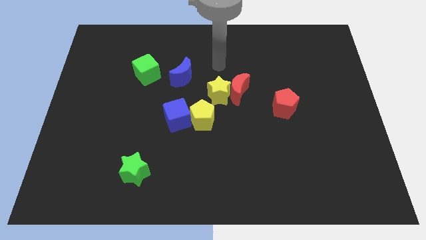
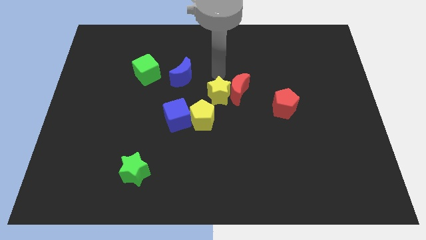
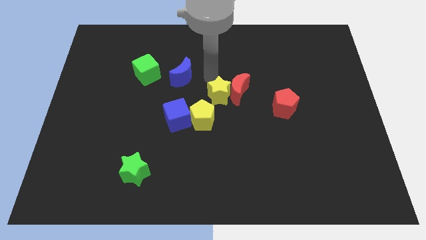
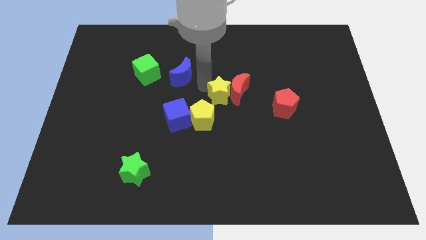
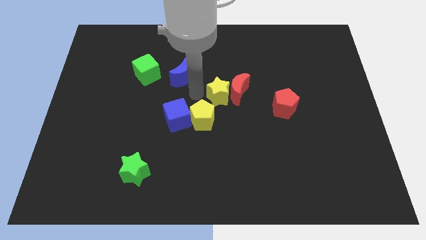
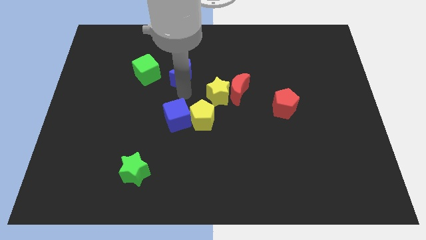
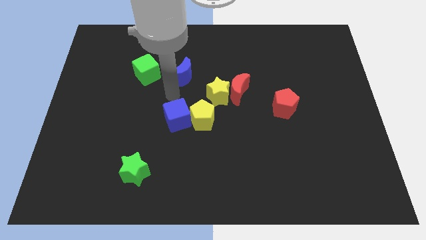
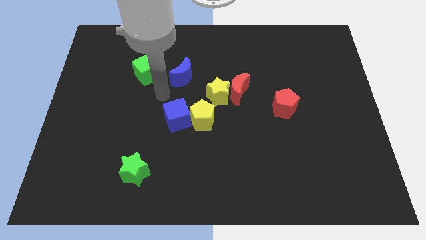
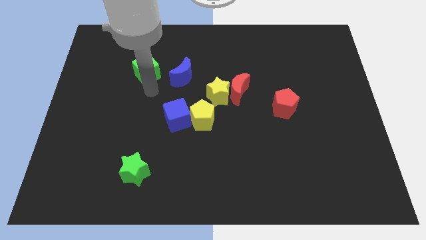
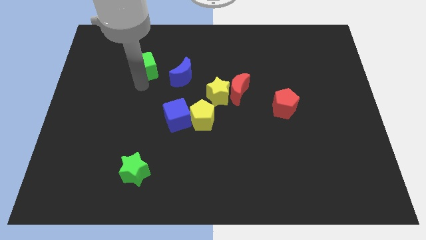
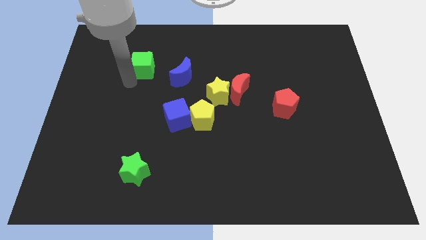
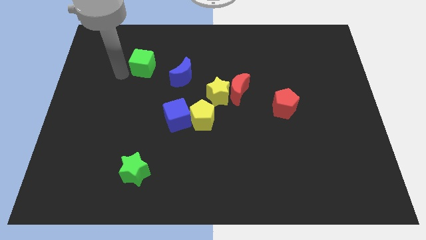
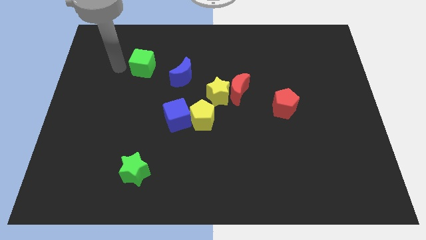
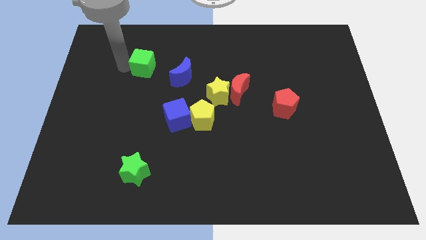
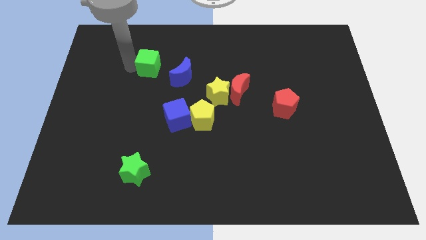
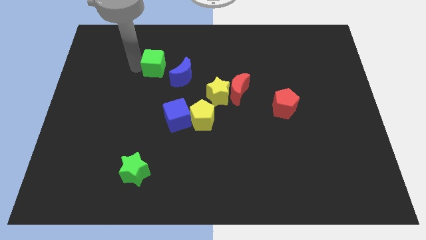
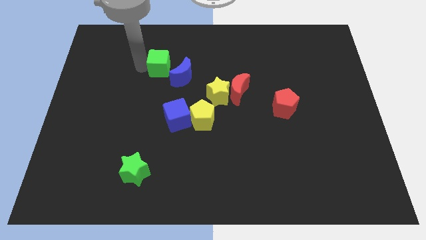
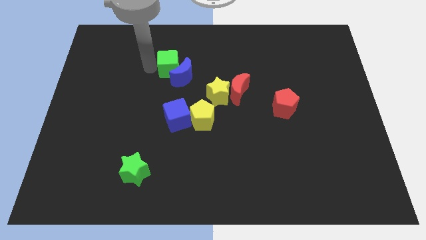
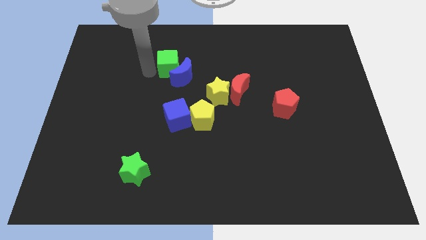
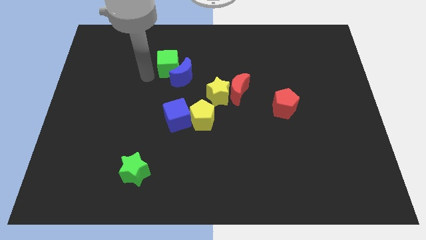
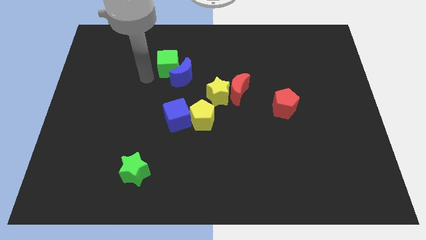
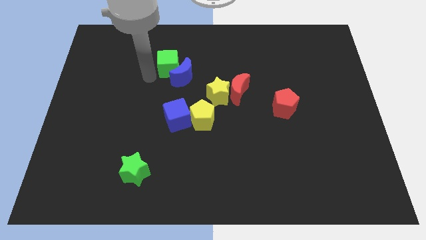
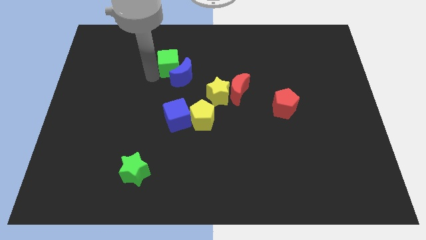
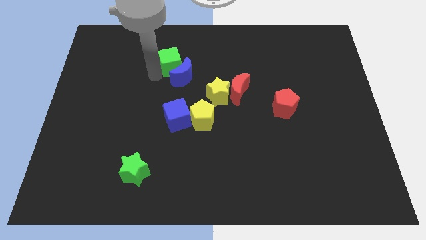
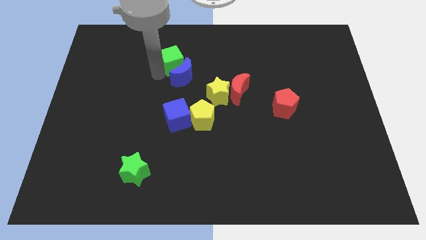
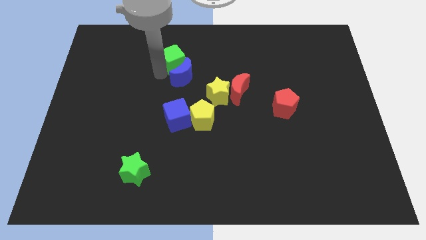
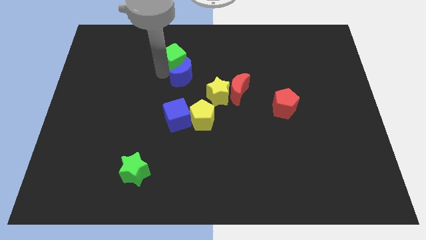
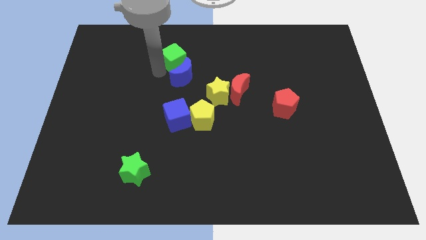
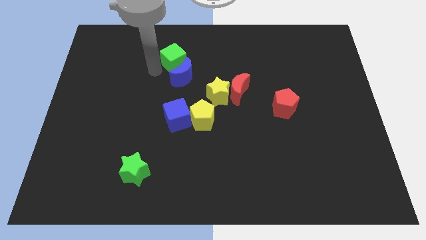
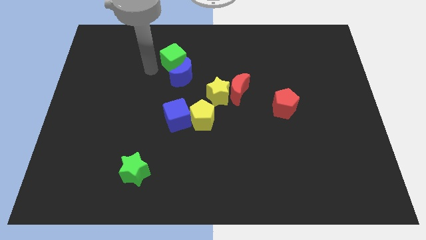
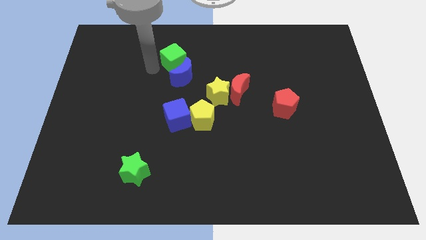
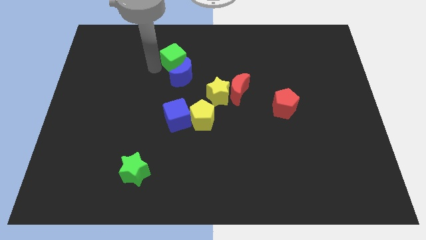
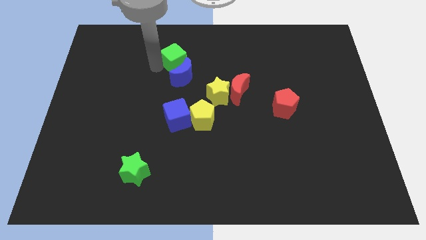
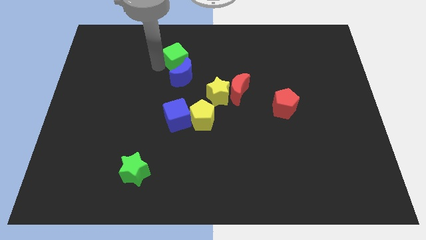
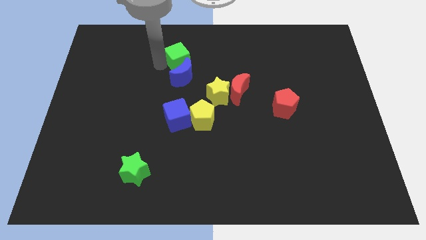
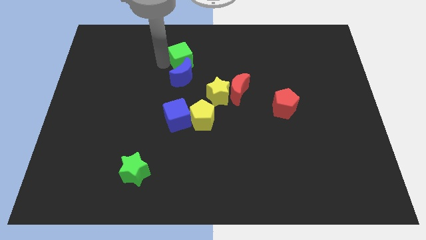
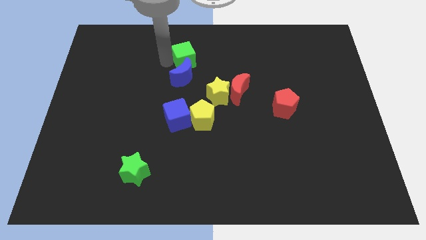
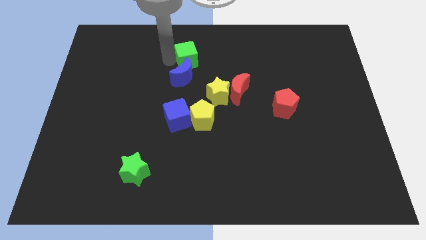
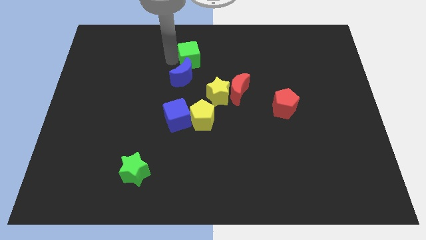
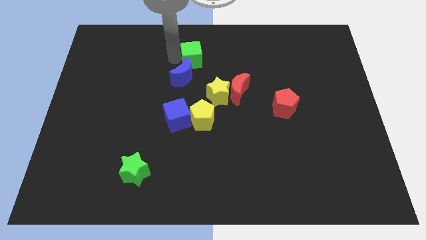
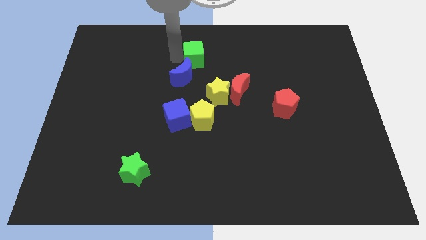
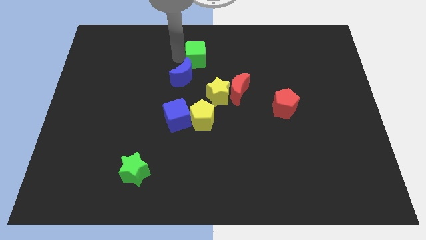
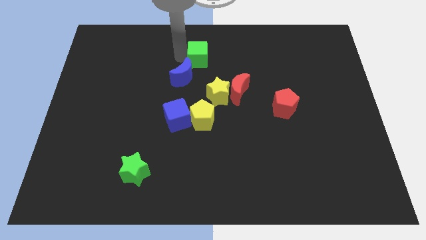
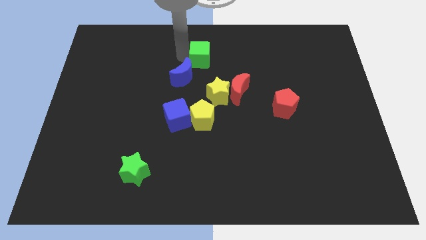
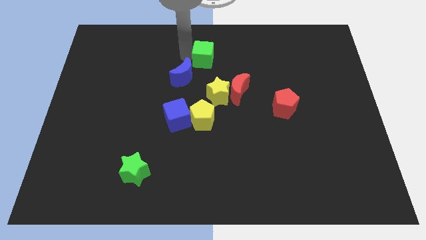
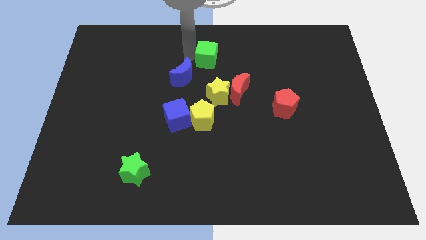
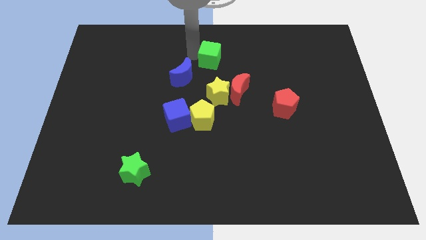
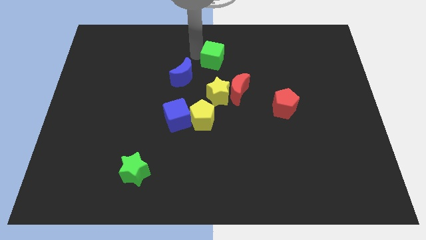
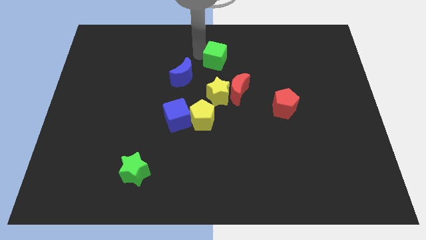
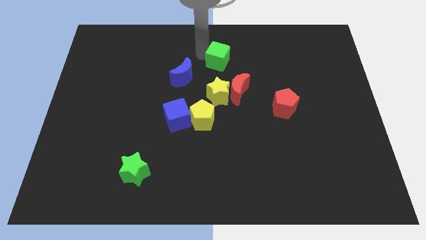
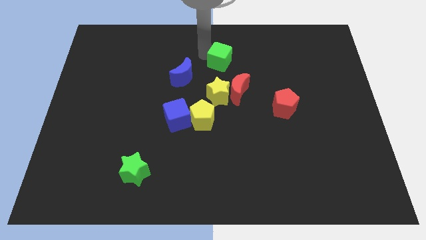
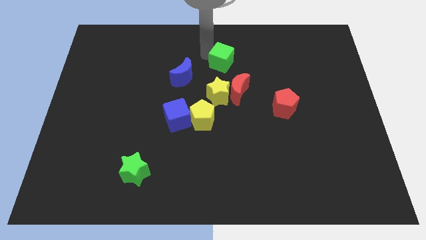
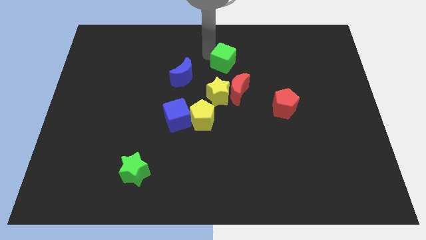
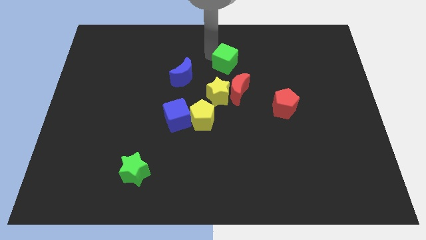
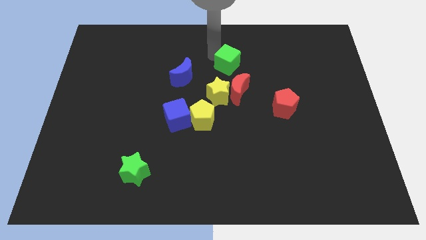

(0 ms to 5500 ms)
move the green cube to the right

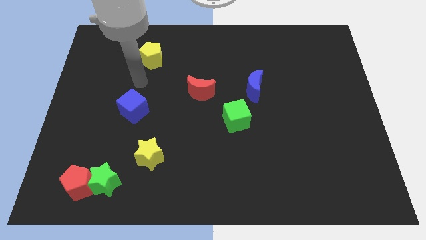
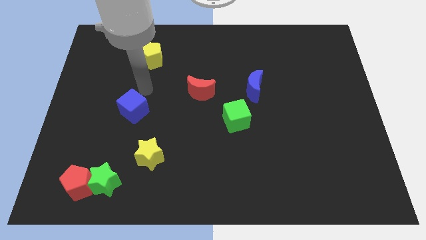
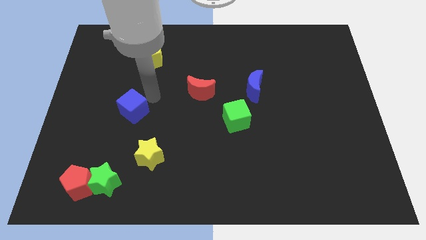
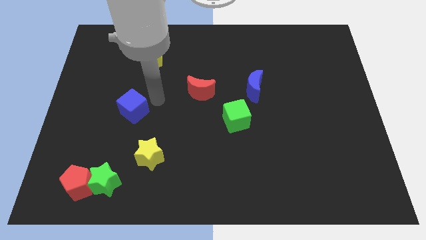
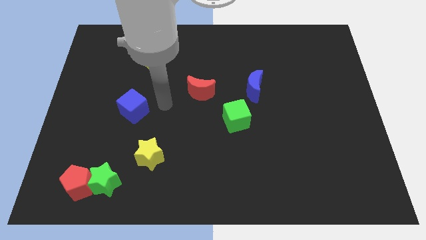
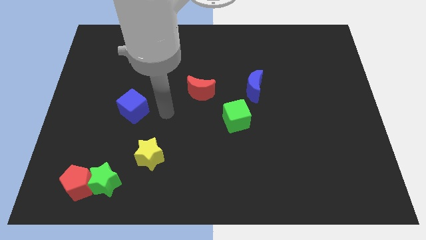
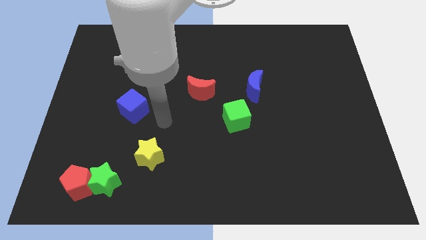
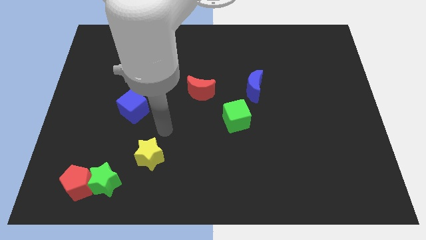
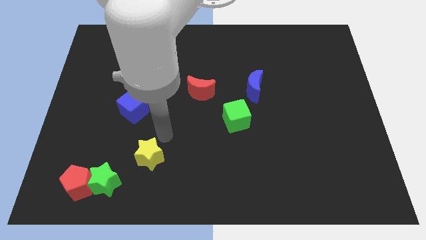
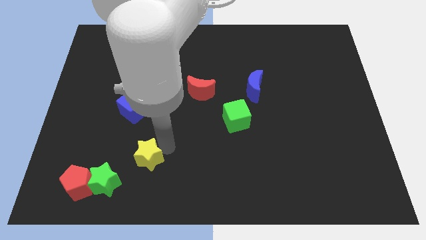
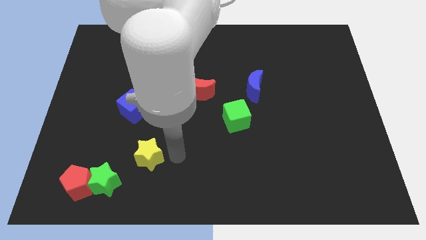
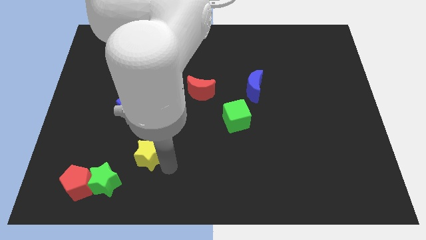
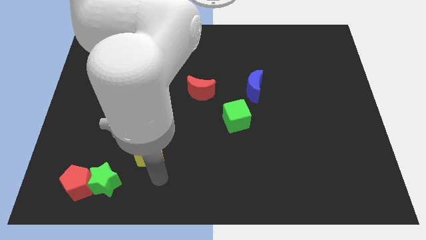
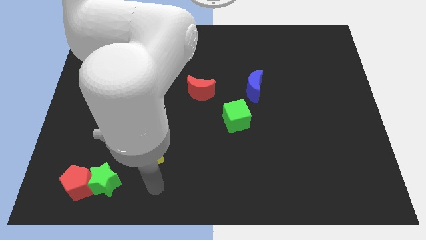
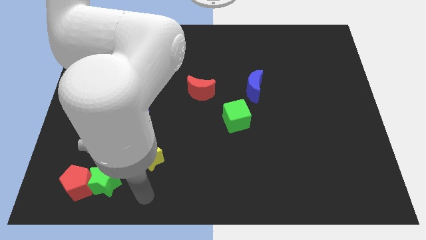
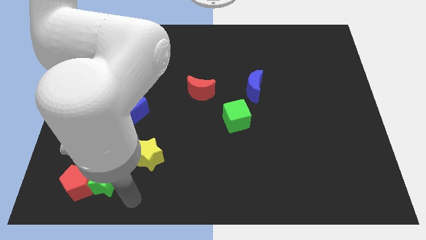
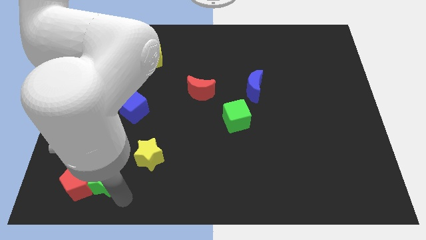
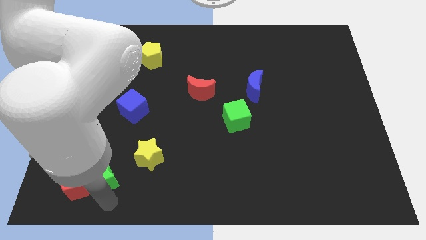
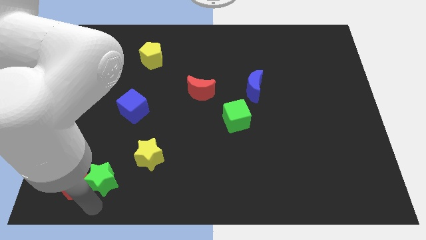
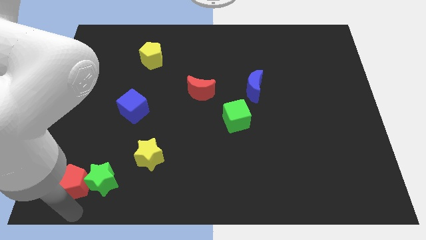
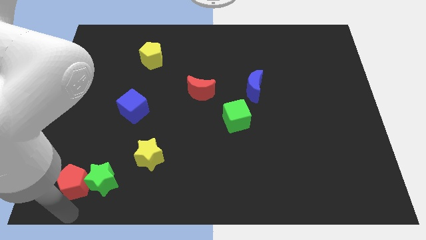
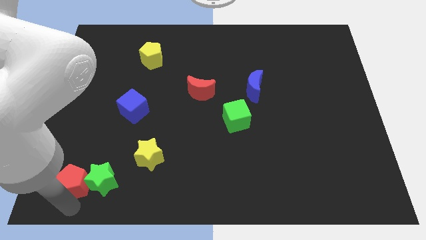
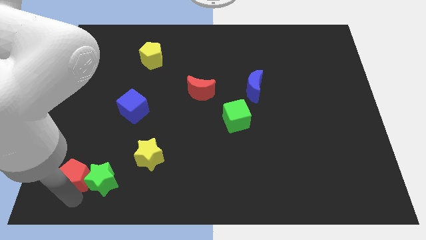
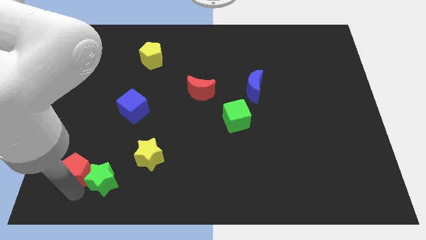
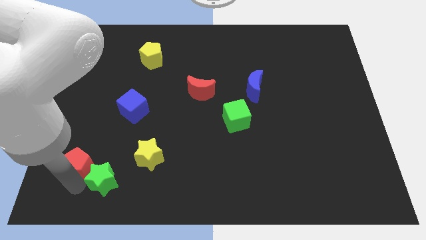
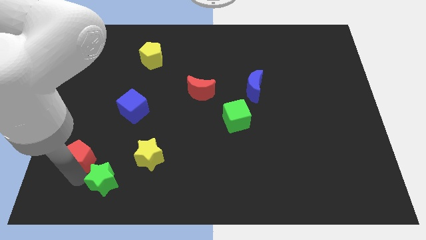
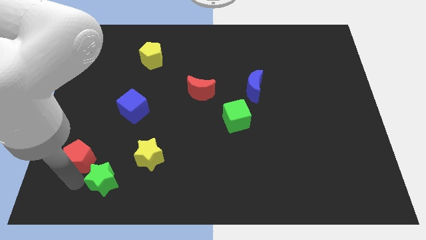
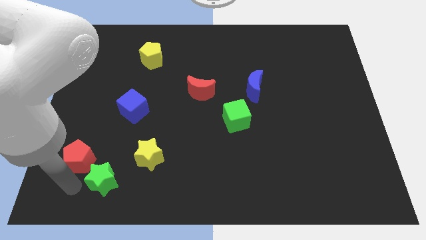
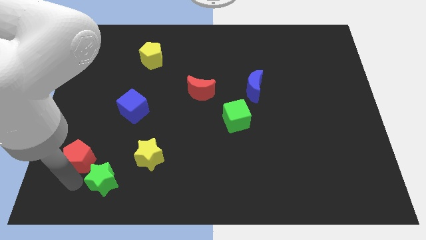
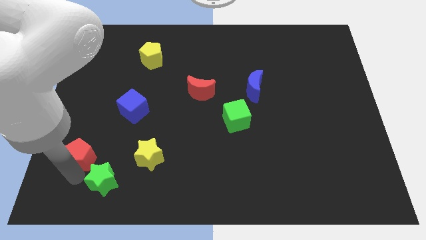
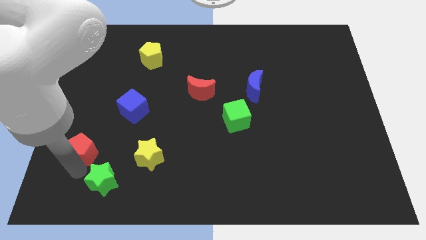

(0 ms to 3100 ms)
slightly slide the red pentagon up
